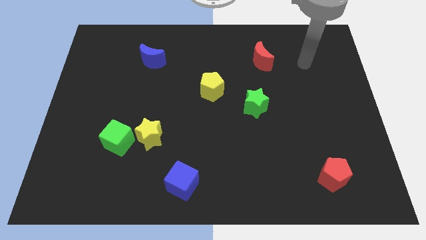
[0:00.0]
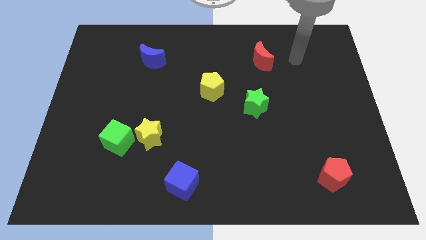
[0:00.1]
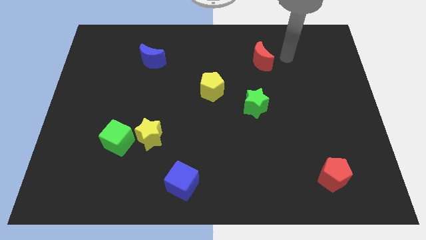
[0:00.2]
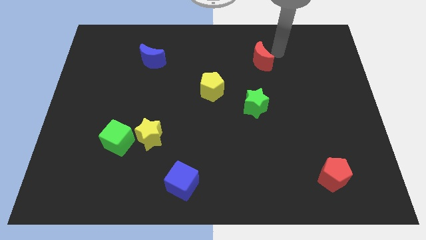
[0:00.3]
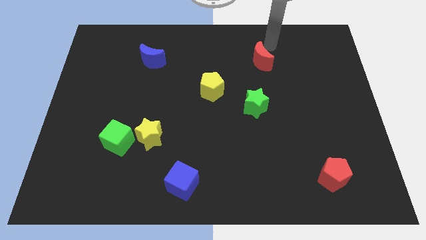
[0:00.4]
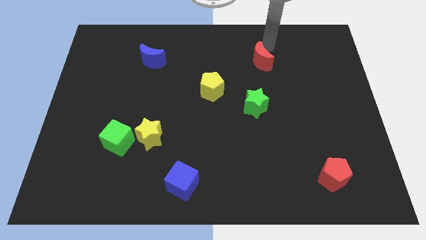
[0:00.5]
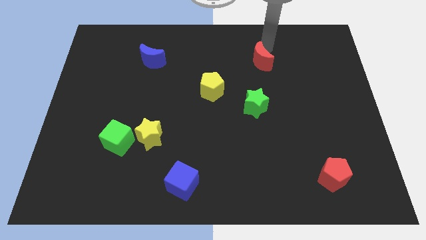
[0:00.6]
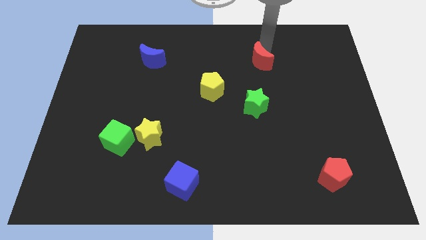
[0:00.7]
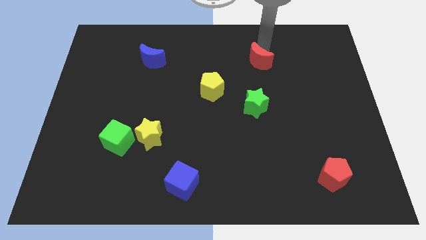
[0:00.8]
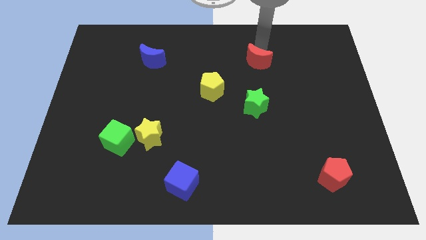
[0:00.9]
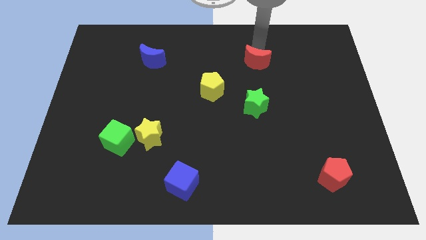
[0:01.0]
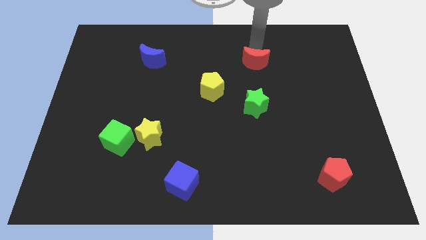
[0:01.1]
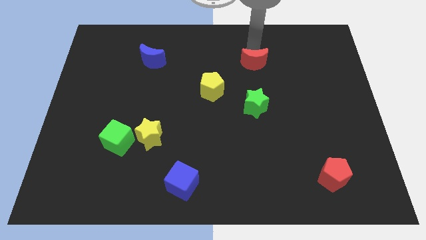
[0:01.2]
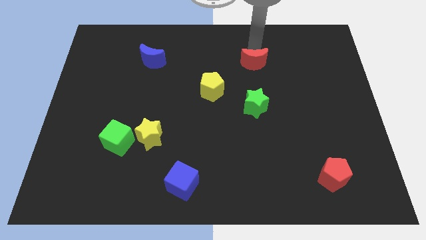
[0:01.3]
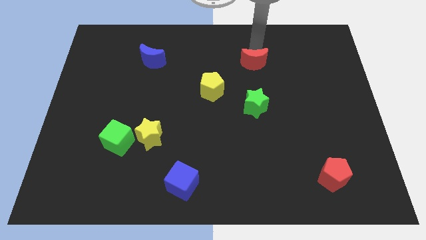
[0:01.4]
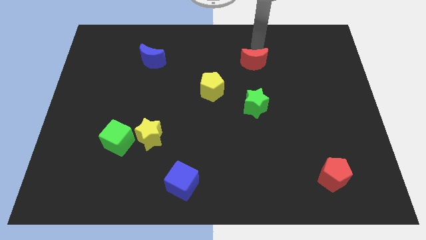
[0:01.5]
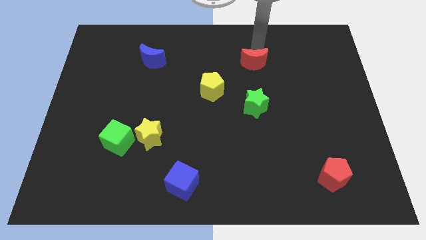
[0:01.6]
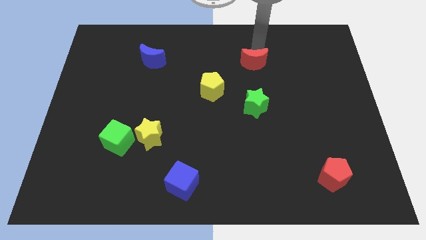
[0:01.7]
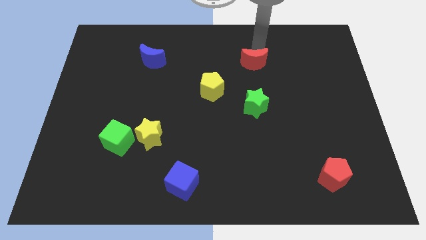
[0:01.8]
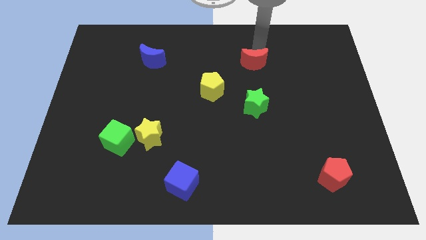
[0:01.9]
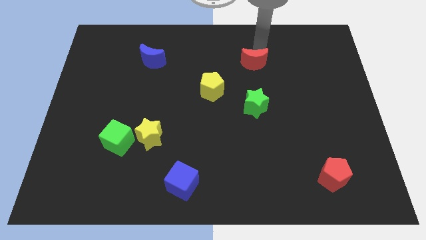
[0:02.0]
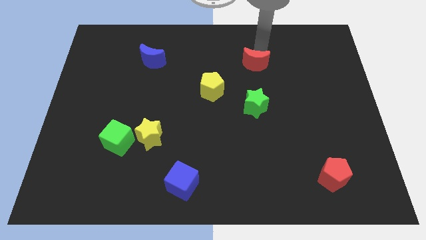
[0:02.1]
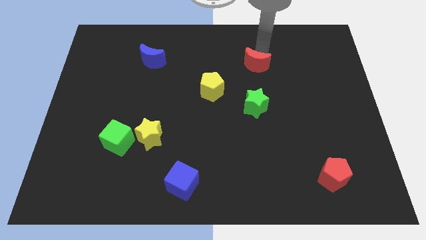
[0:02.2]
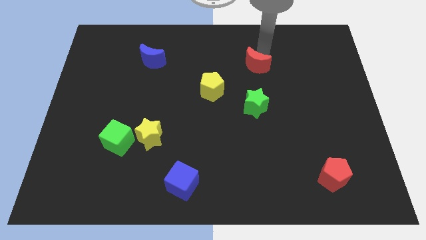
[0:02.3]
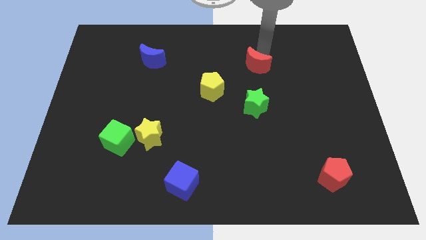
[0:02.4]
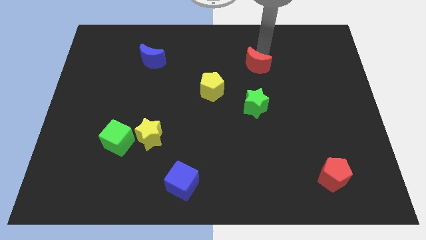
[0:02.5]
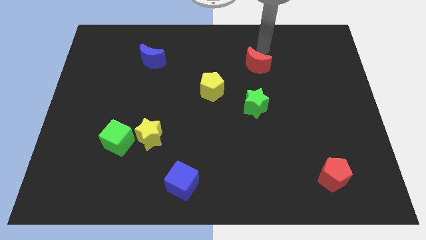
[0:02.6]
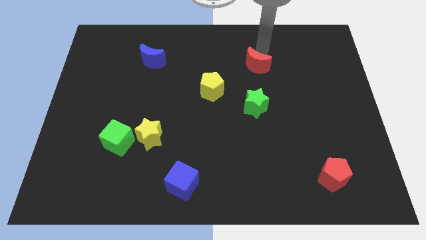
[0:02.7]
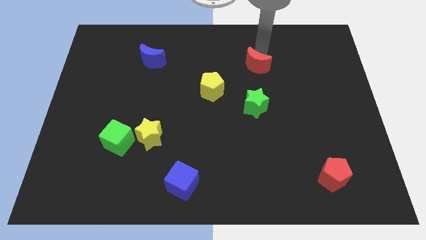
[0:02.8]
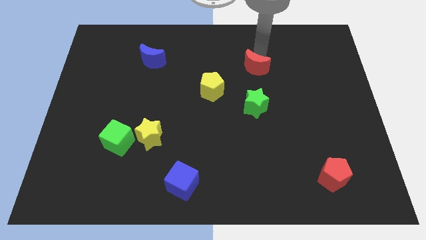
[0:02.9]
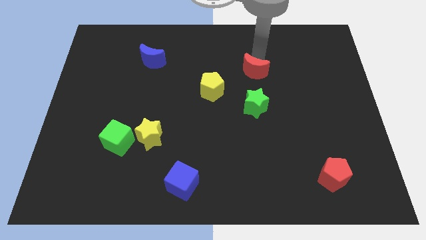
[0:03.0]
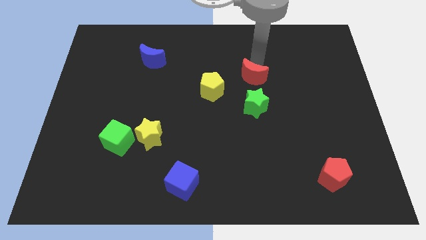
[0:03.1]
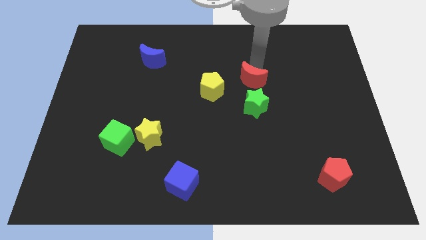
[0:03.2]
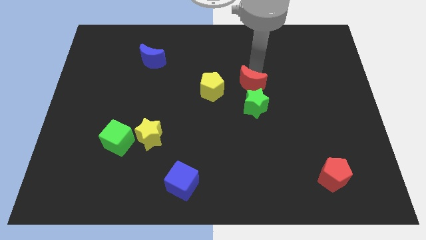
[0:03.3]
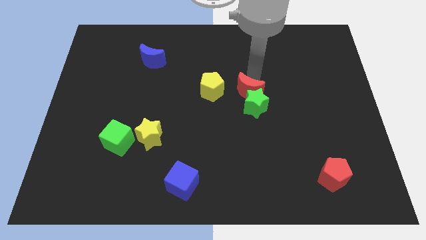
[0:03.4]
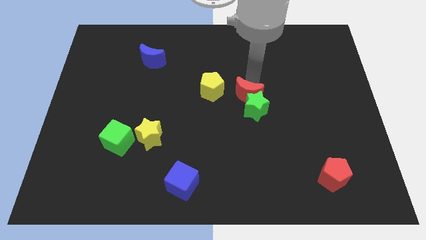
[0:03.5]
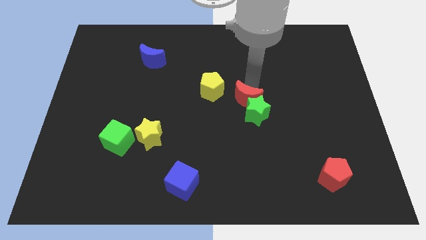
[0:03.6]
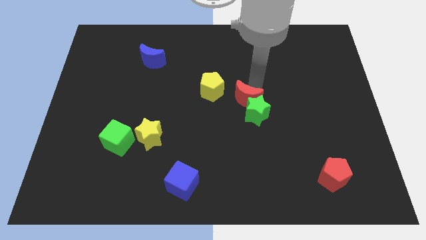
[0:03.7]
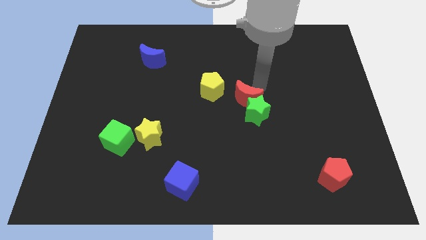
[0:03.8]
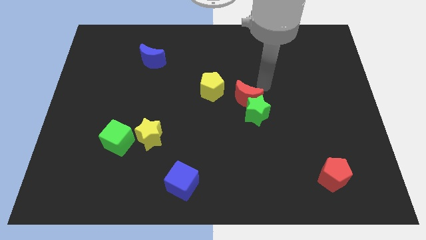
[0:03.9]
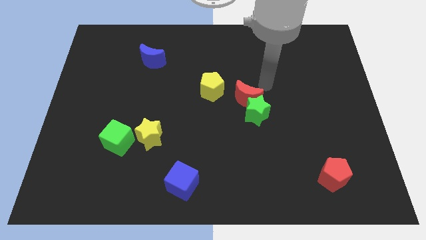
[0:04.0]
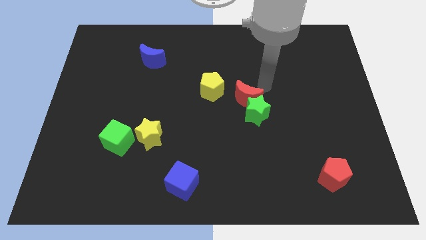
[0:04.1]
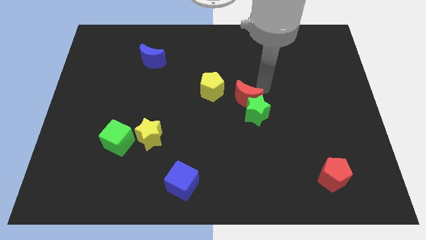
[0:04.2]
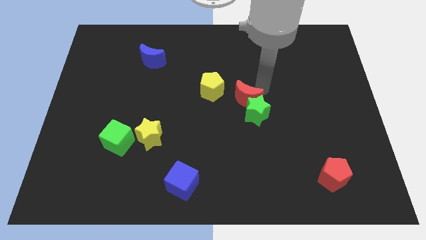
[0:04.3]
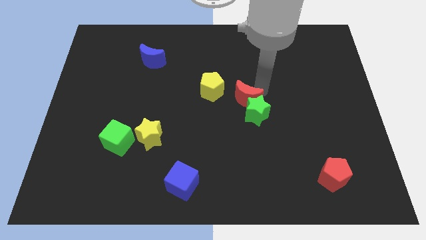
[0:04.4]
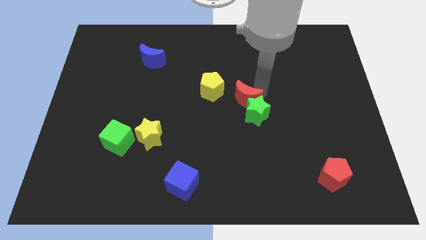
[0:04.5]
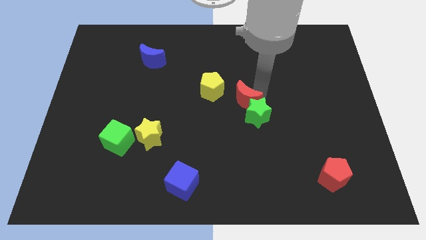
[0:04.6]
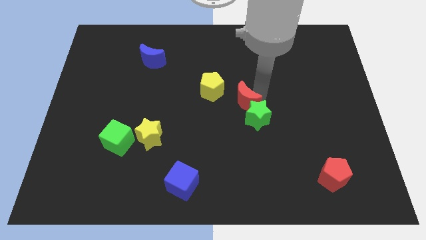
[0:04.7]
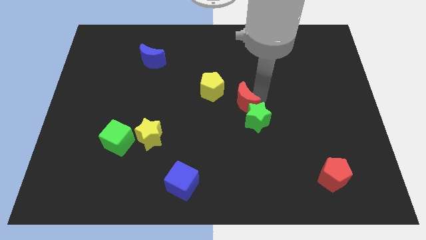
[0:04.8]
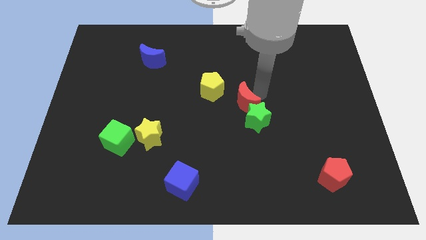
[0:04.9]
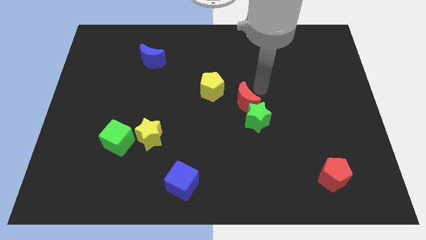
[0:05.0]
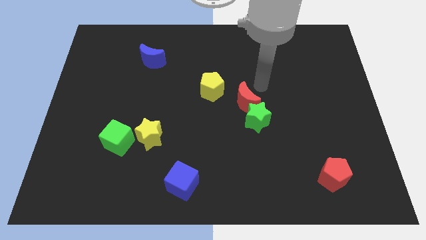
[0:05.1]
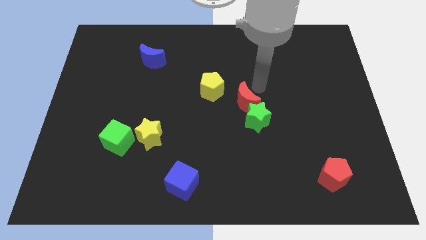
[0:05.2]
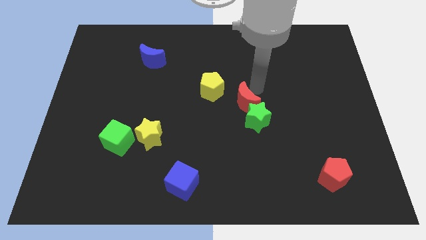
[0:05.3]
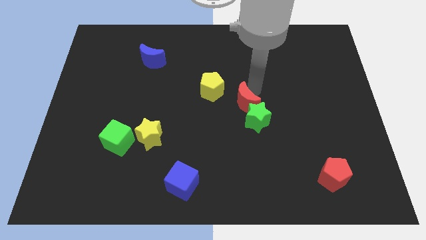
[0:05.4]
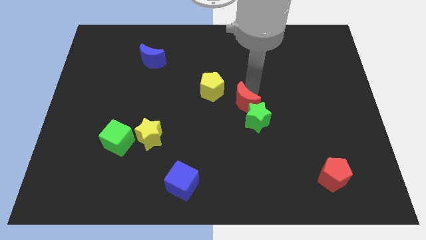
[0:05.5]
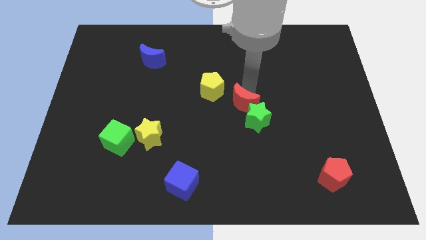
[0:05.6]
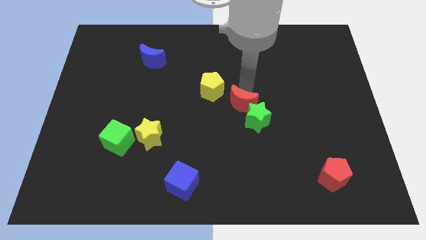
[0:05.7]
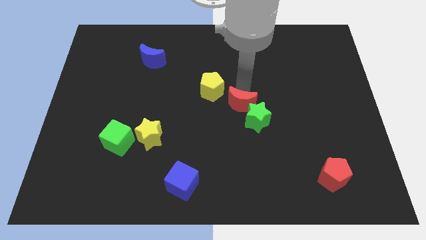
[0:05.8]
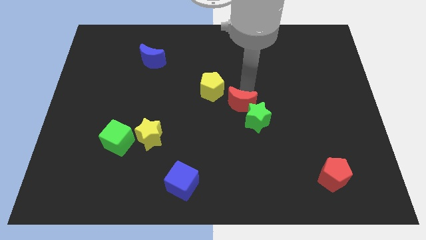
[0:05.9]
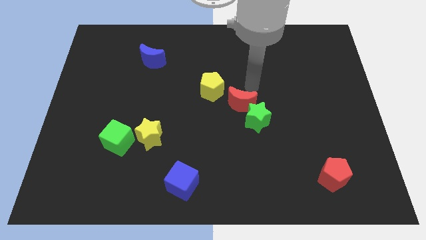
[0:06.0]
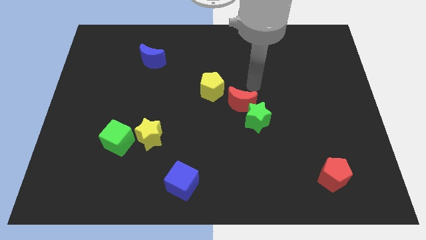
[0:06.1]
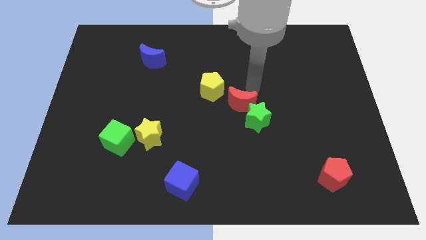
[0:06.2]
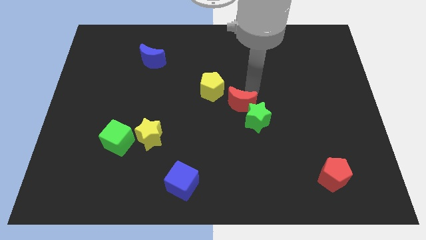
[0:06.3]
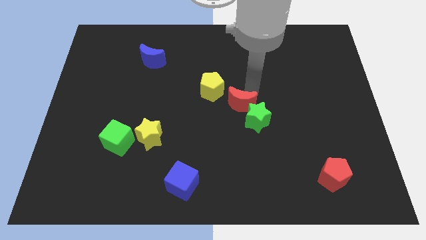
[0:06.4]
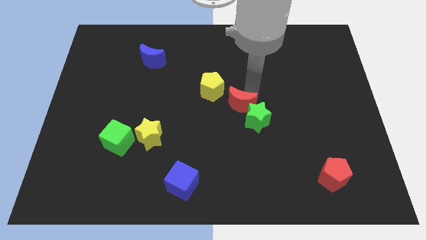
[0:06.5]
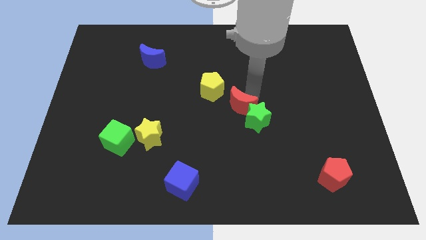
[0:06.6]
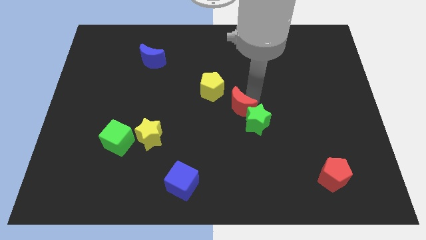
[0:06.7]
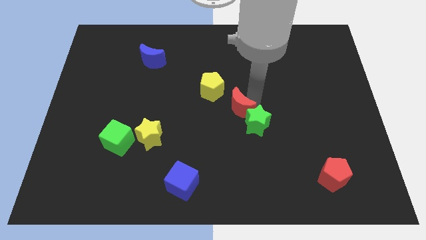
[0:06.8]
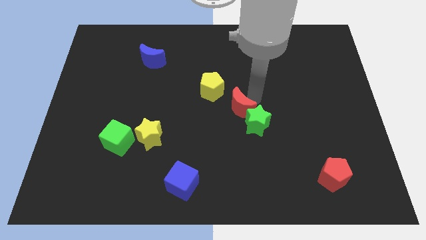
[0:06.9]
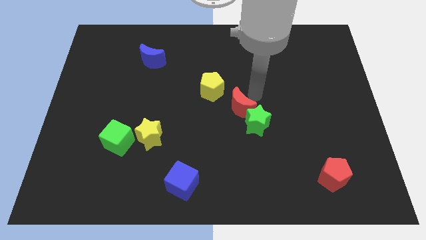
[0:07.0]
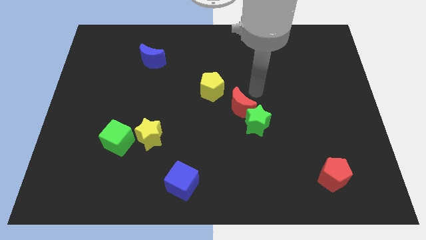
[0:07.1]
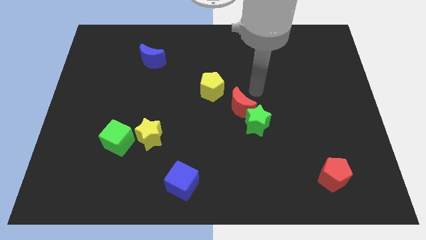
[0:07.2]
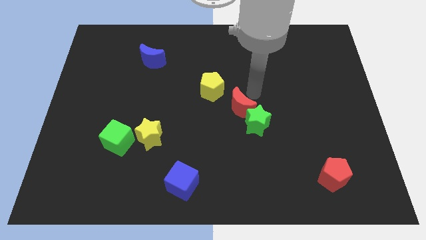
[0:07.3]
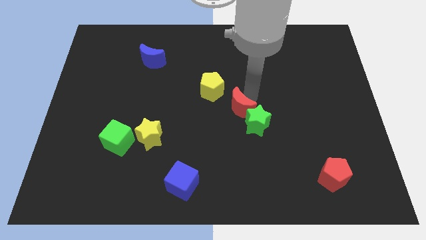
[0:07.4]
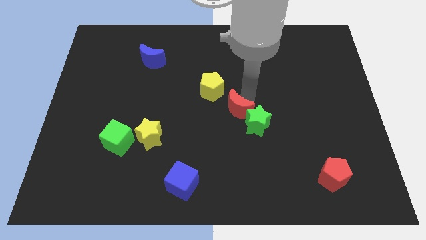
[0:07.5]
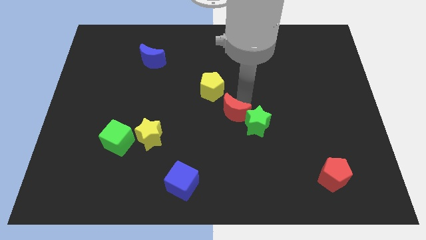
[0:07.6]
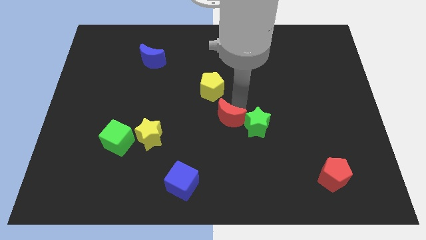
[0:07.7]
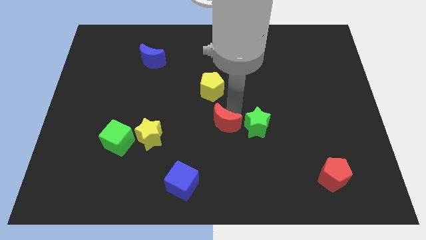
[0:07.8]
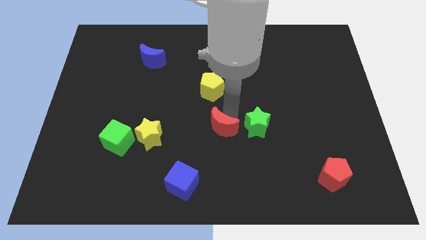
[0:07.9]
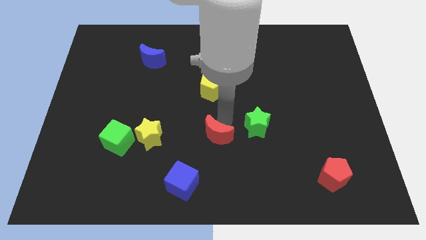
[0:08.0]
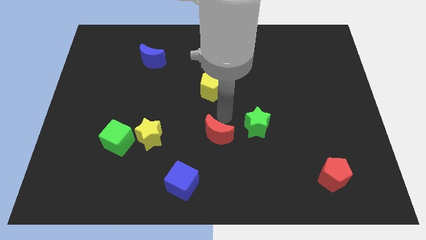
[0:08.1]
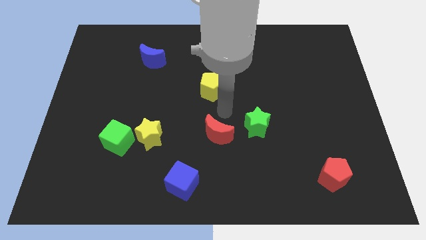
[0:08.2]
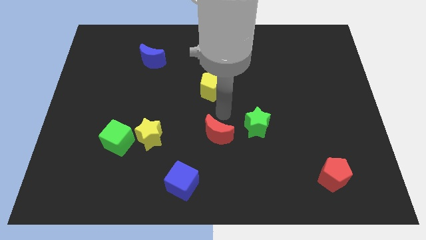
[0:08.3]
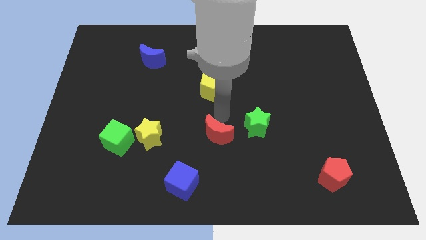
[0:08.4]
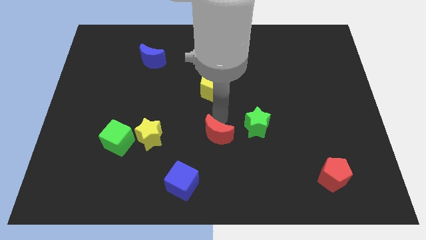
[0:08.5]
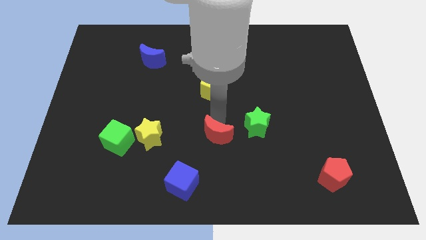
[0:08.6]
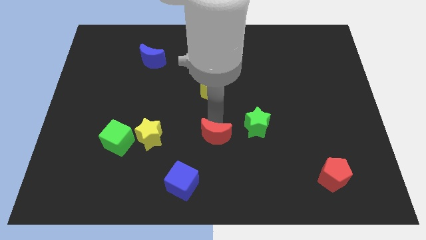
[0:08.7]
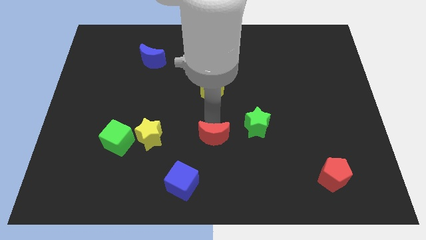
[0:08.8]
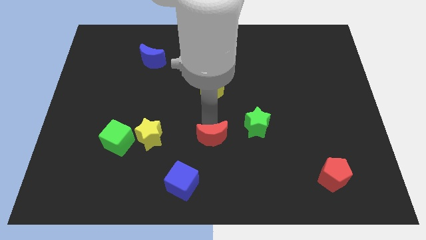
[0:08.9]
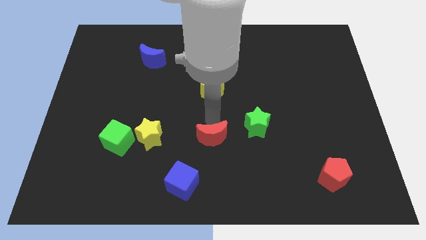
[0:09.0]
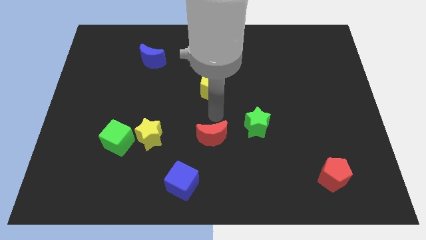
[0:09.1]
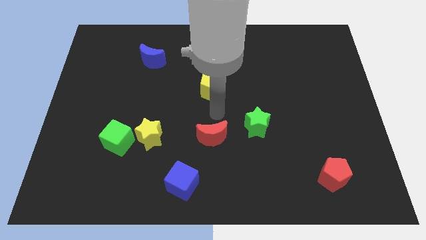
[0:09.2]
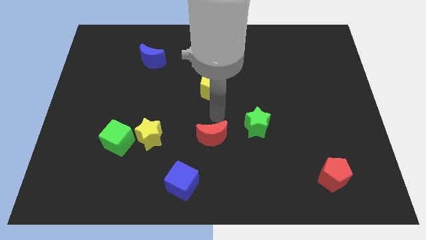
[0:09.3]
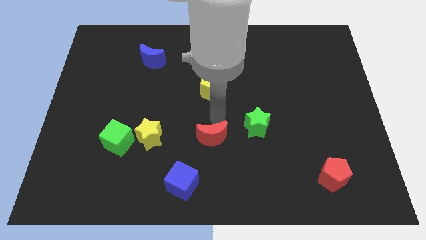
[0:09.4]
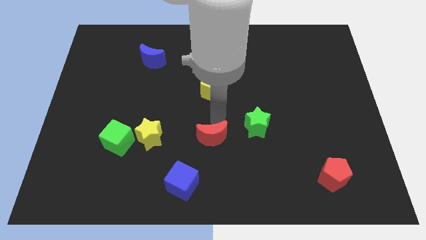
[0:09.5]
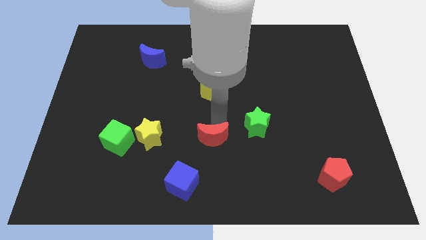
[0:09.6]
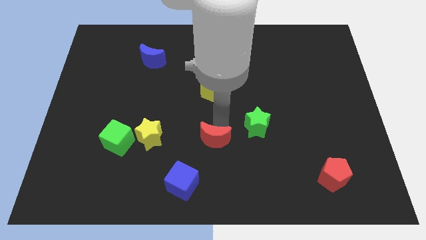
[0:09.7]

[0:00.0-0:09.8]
push the red moon to the top right side of the blue cube
